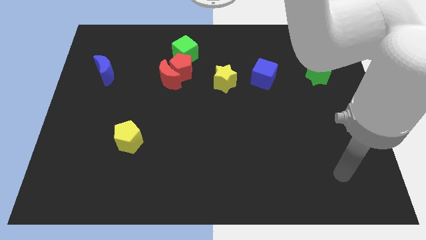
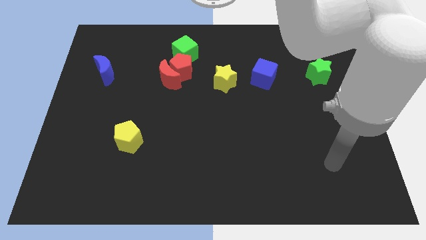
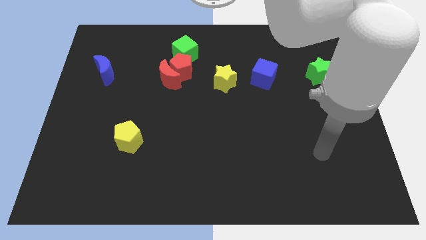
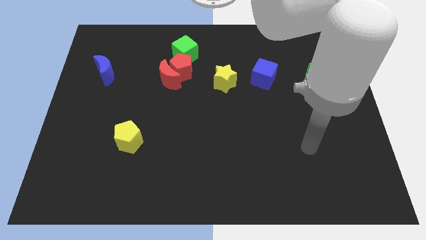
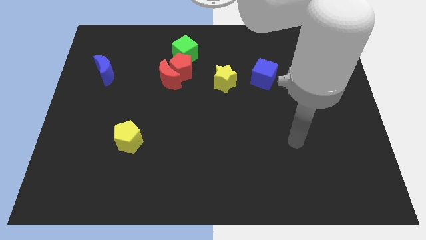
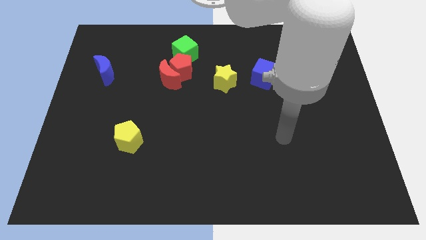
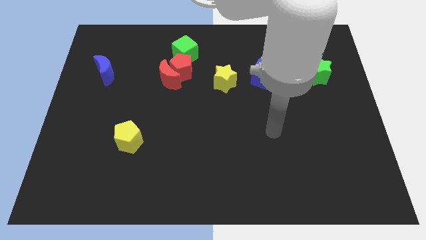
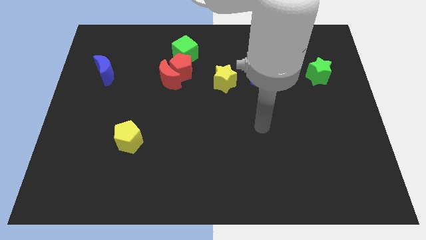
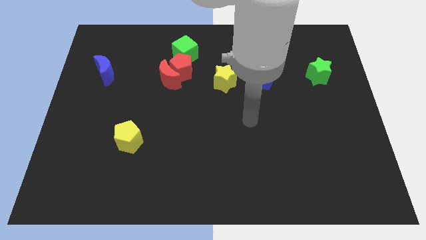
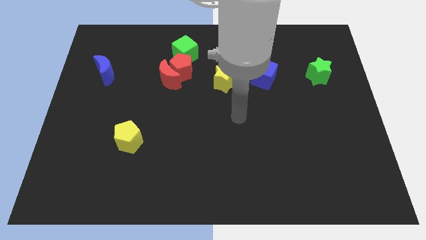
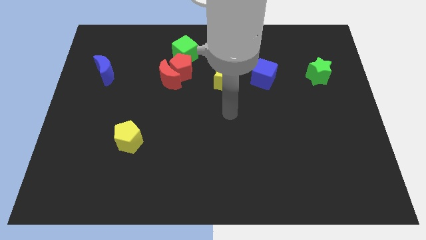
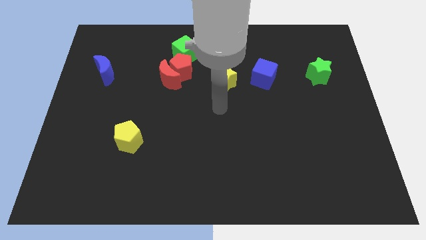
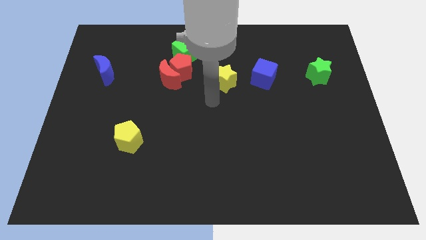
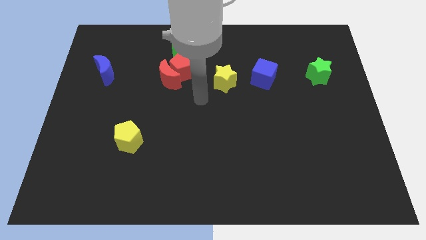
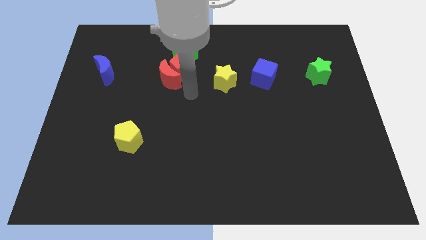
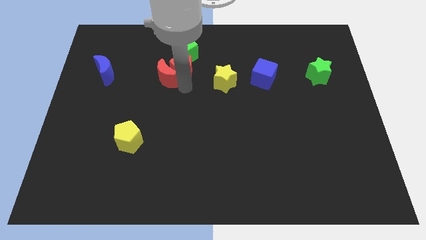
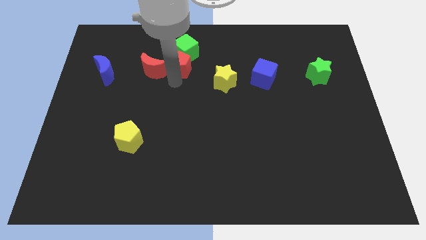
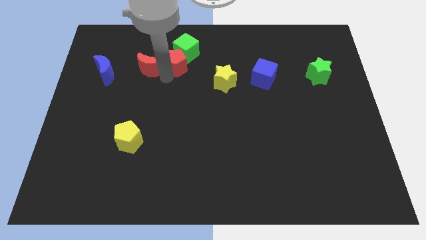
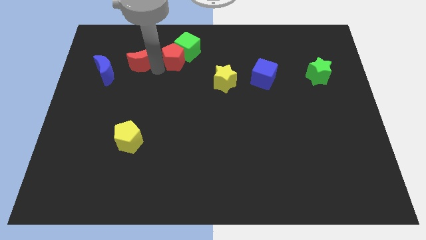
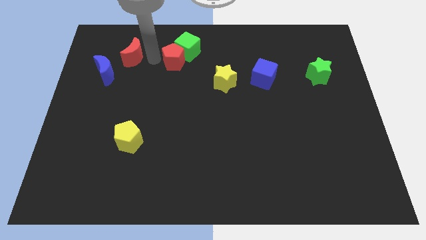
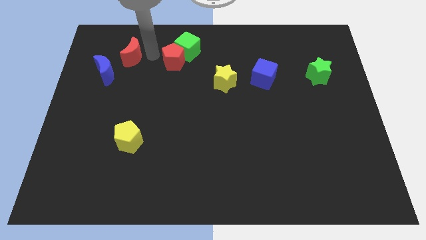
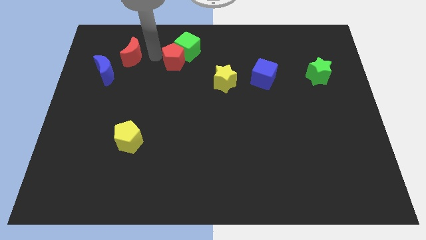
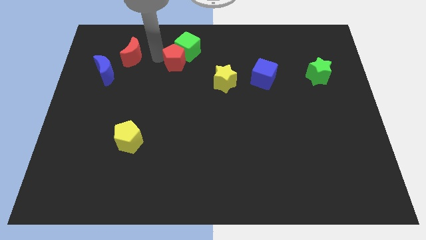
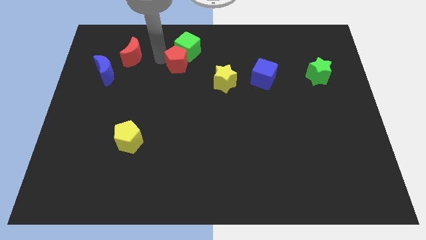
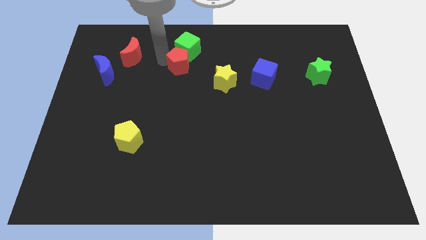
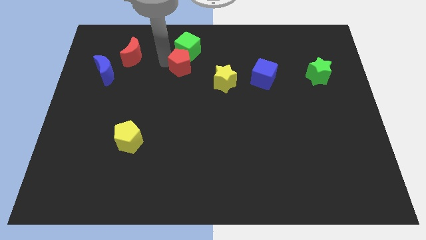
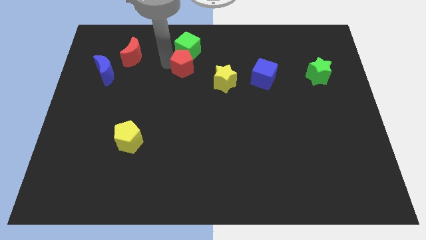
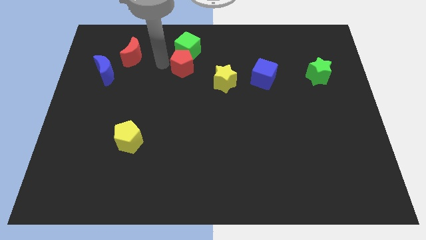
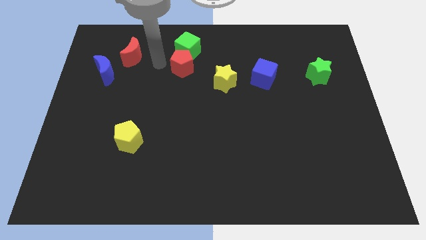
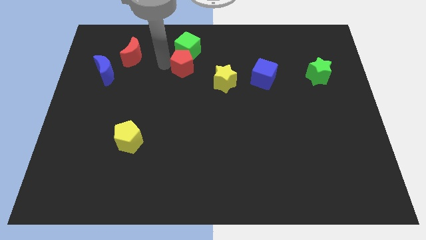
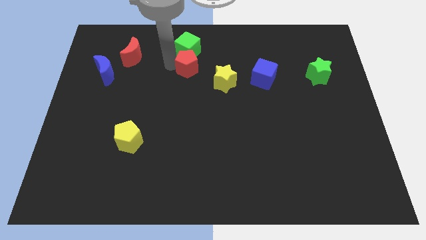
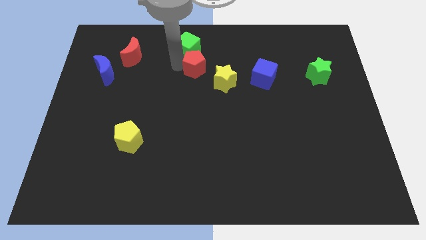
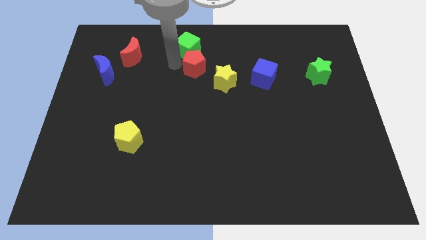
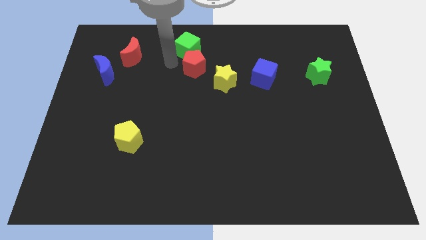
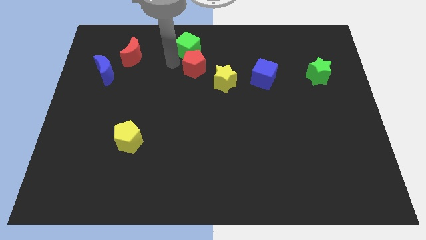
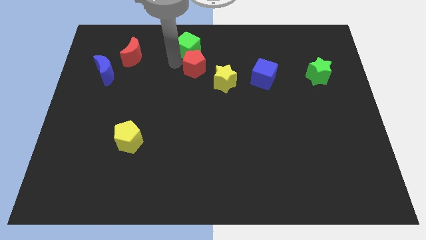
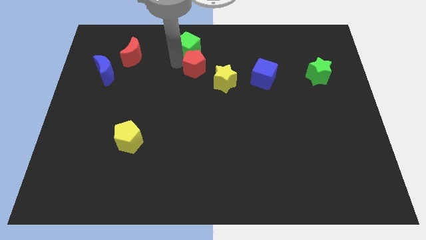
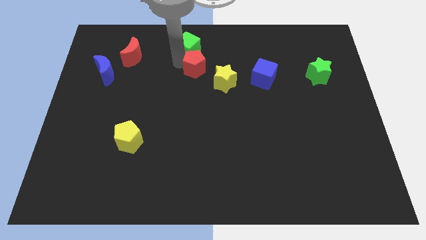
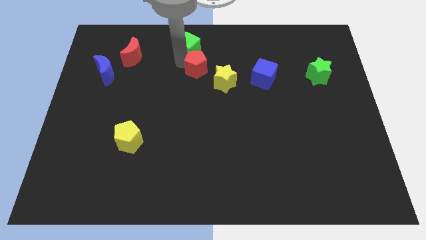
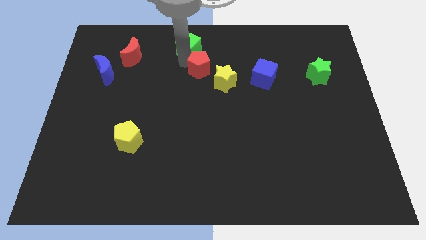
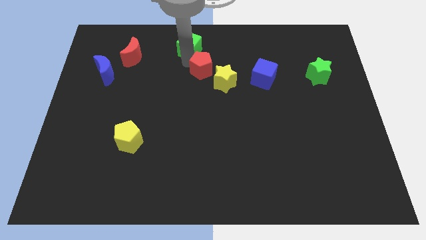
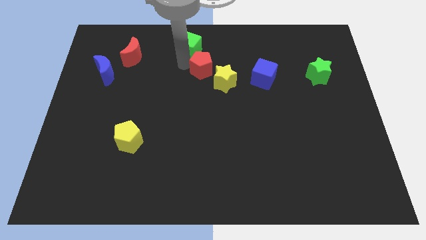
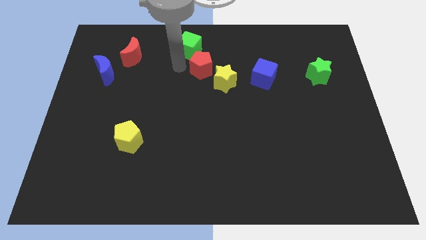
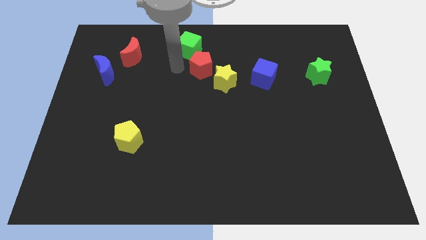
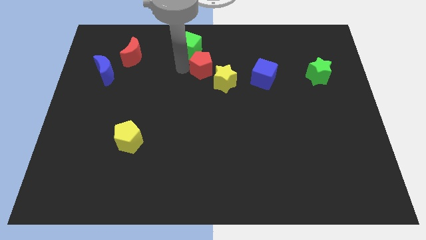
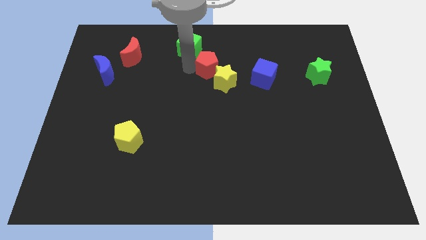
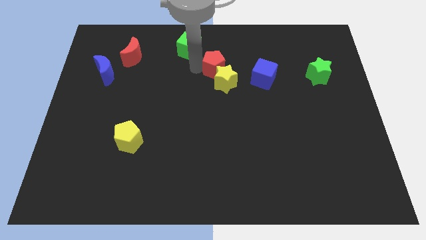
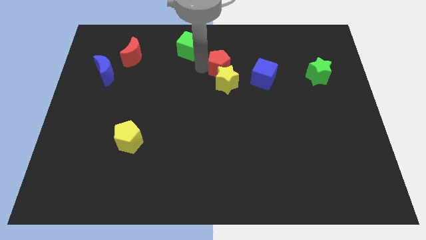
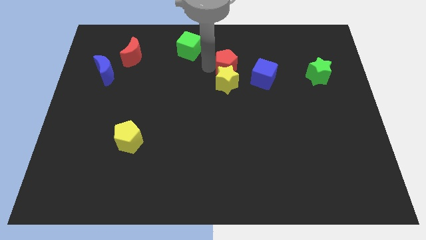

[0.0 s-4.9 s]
move the red pentagon to the top right of the yellow star

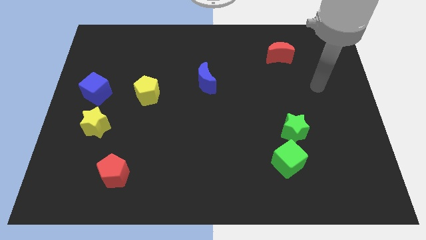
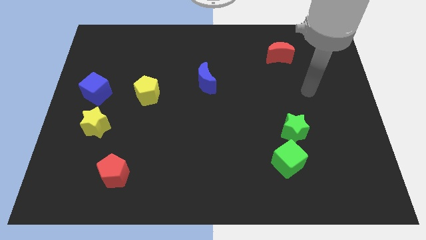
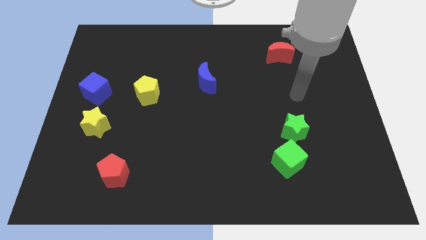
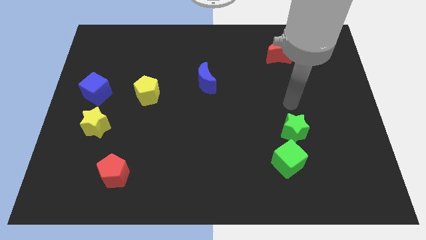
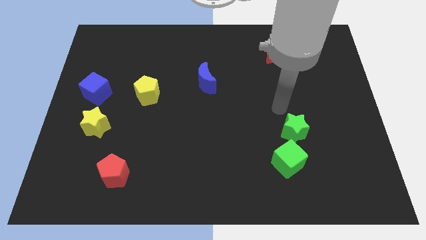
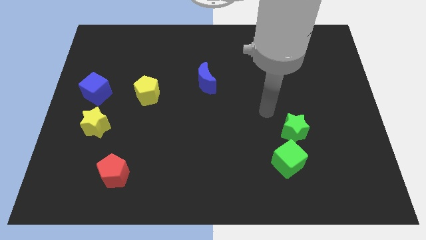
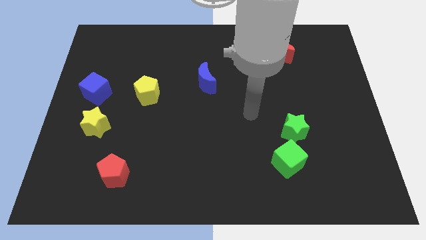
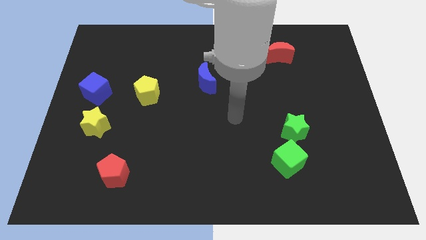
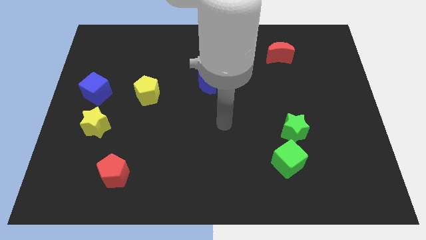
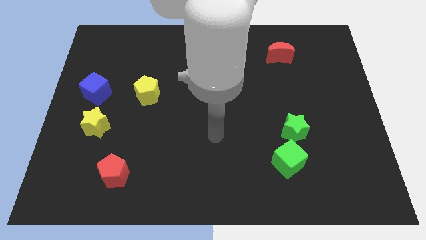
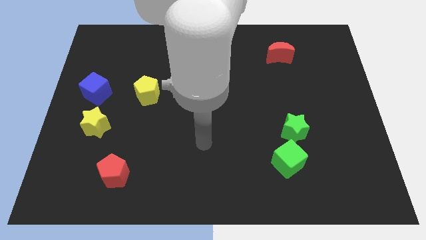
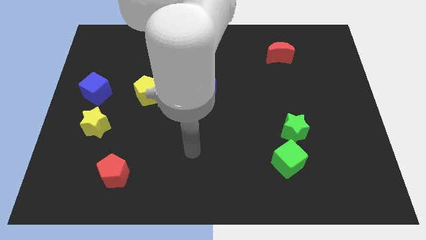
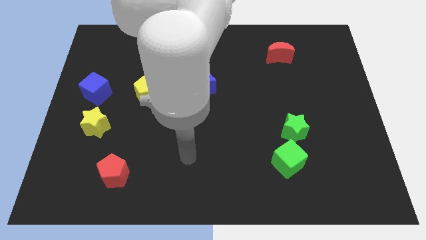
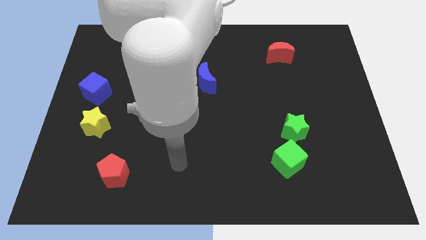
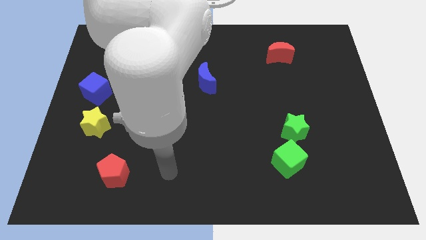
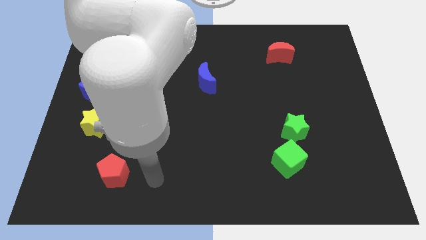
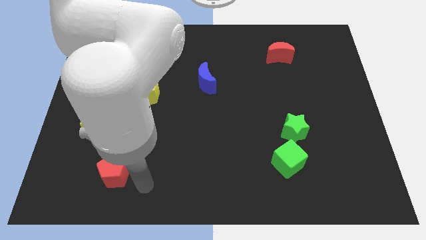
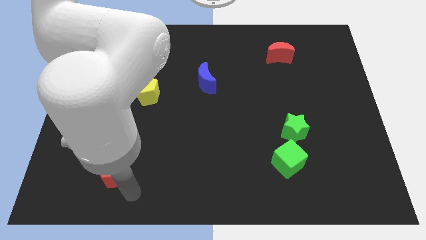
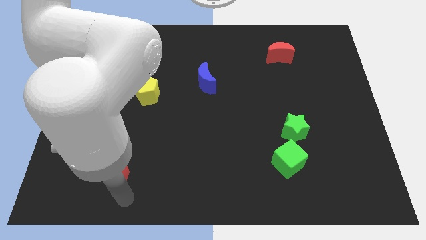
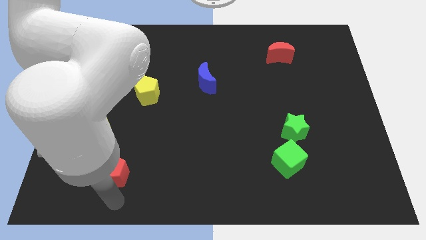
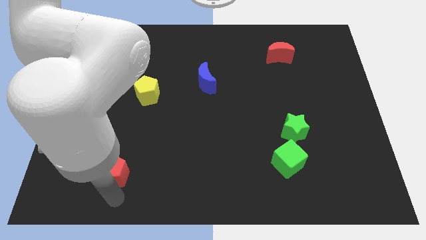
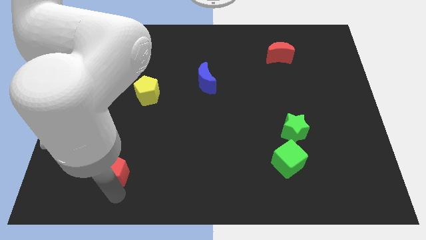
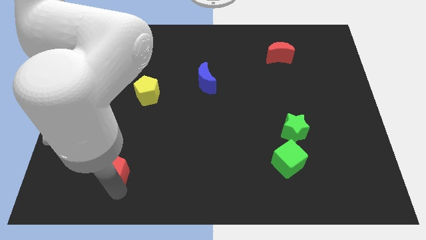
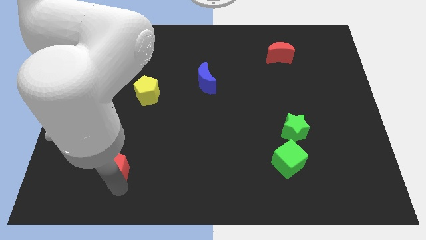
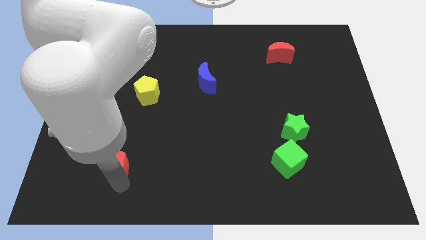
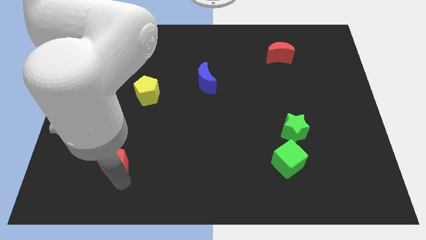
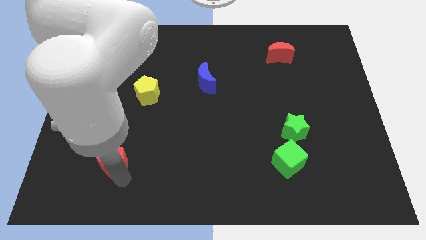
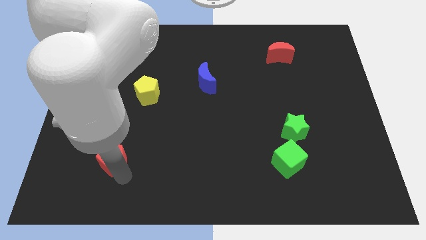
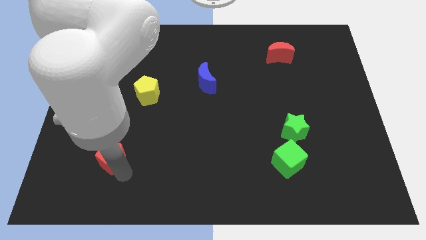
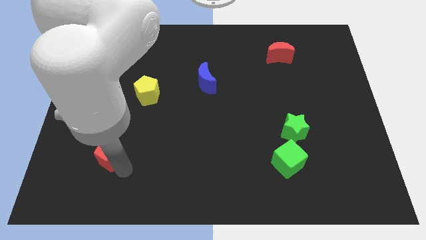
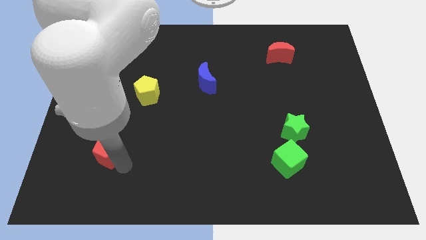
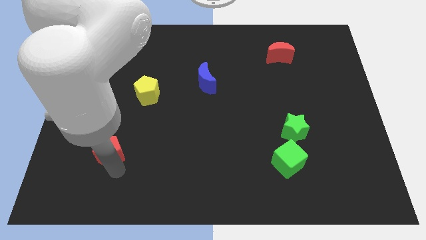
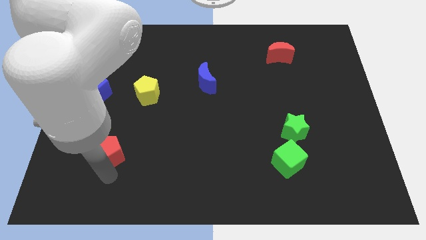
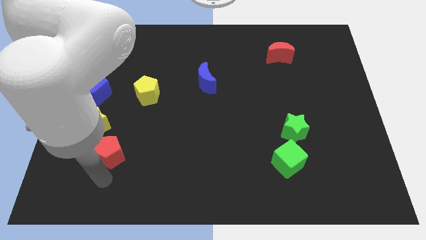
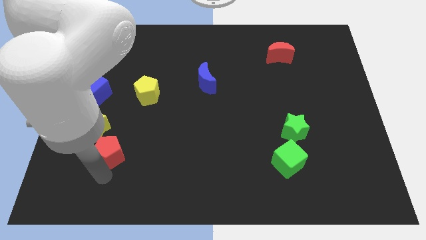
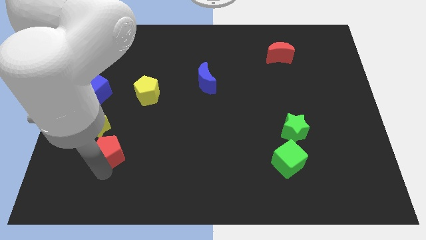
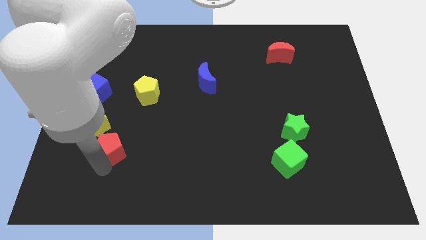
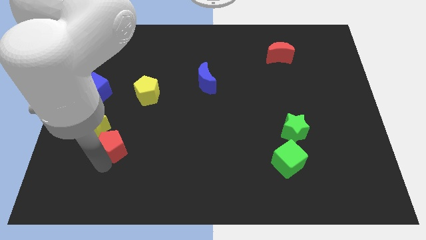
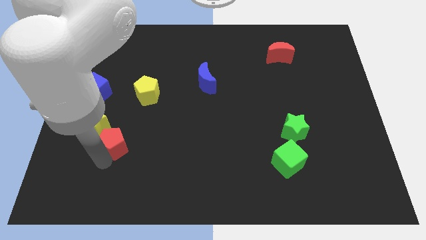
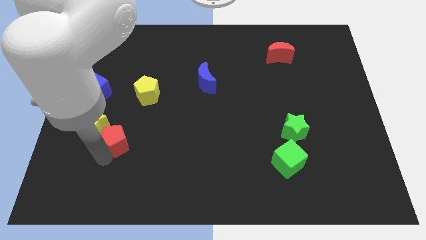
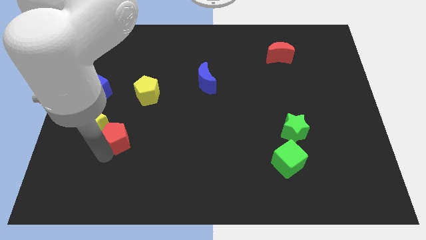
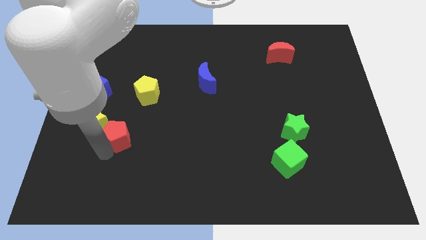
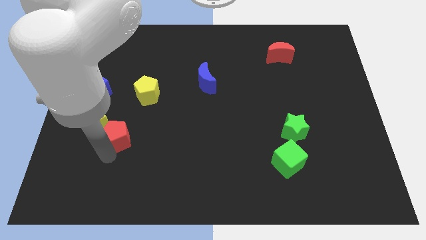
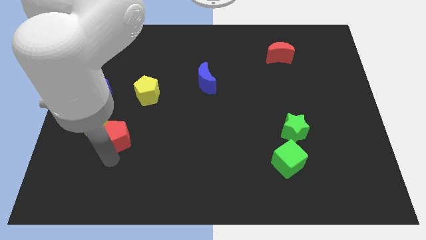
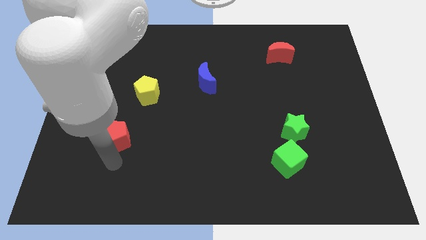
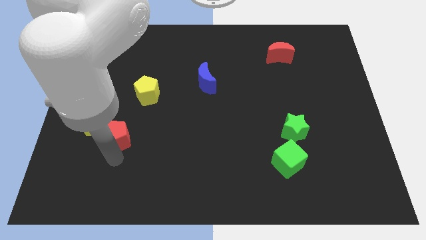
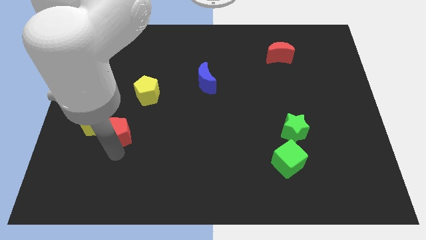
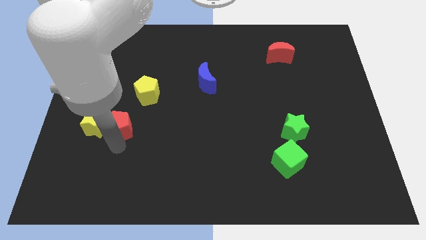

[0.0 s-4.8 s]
slide the red pentagon to the bottom left of the yellow pentagon
